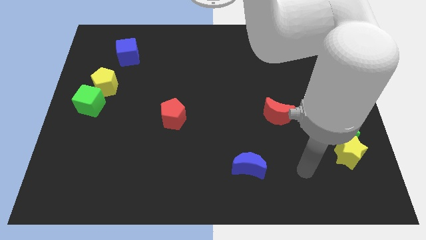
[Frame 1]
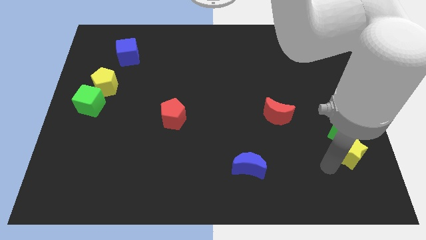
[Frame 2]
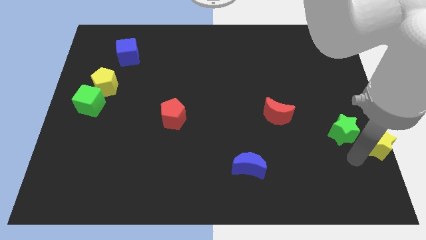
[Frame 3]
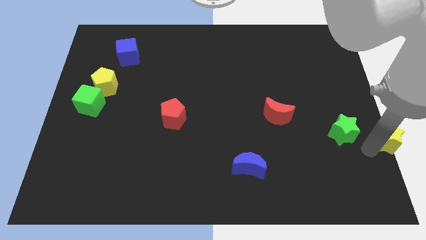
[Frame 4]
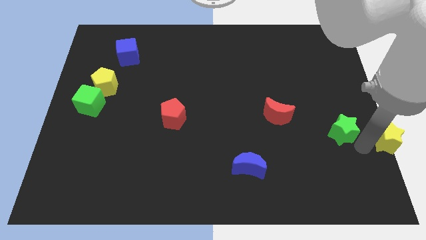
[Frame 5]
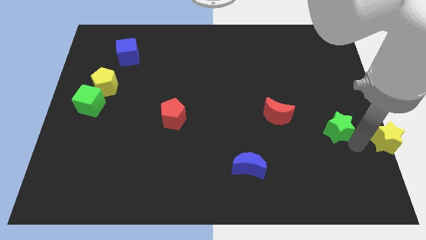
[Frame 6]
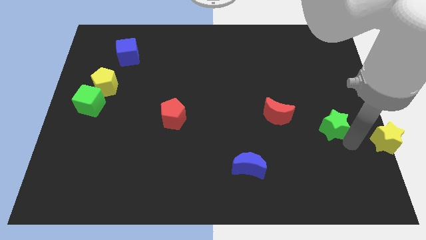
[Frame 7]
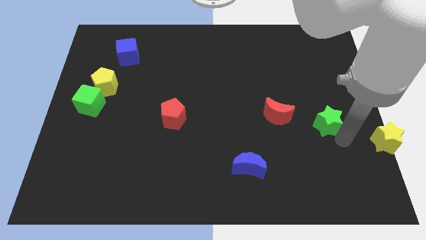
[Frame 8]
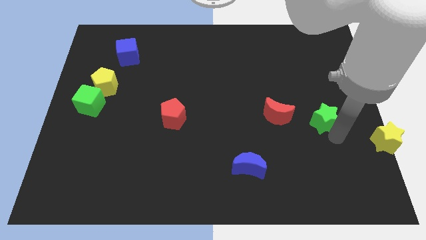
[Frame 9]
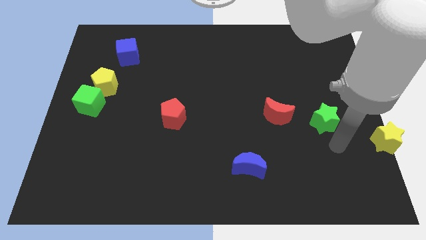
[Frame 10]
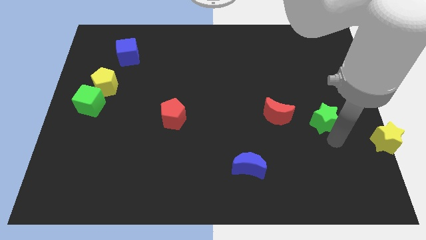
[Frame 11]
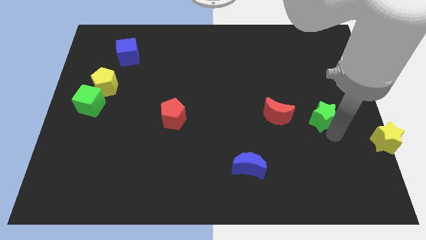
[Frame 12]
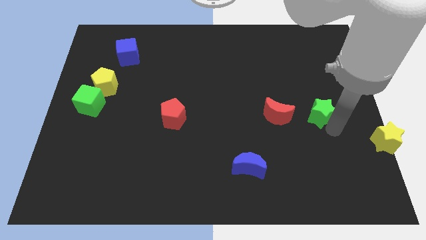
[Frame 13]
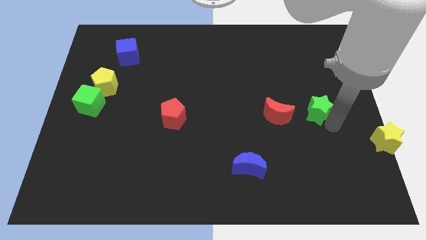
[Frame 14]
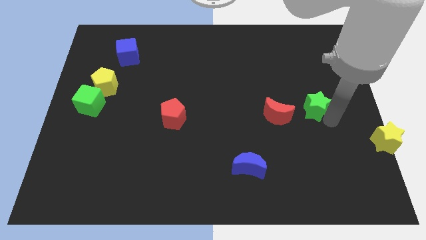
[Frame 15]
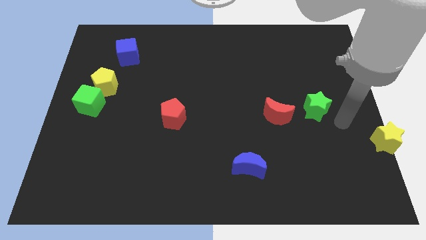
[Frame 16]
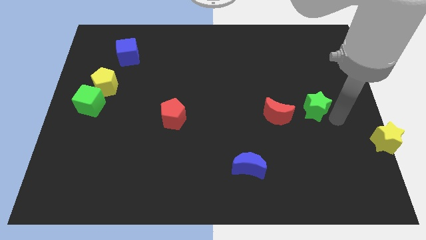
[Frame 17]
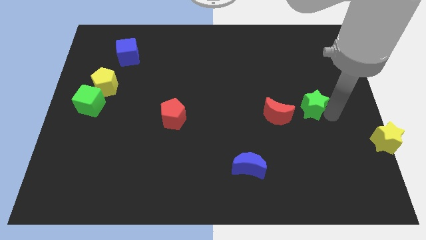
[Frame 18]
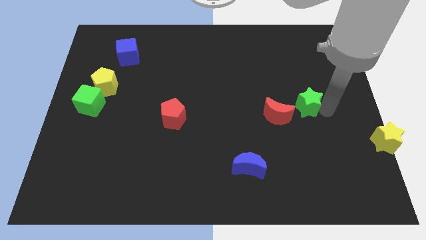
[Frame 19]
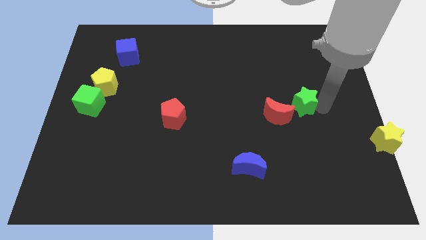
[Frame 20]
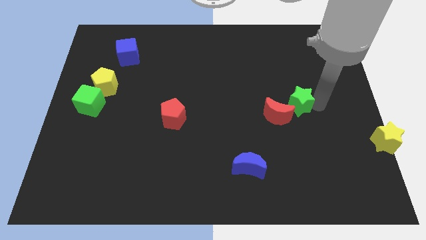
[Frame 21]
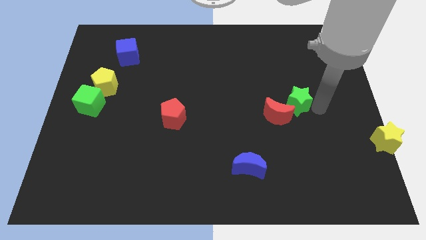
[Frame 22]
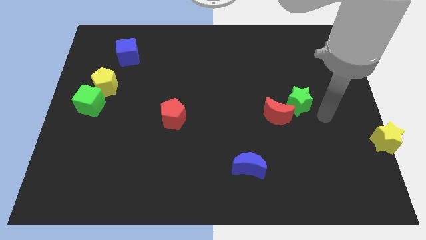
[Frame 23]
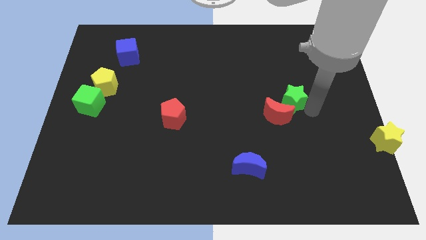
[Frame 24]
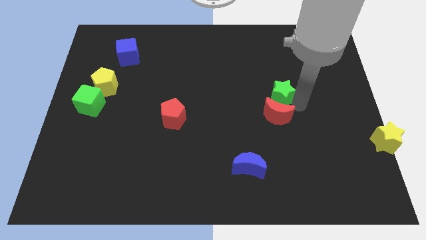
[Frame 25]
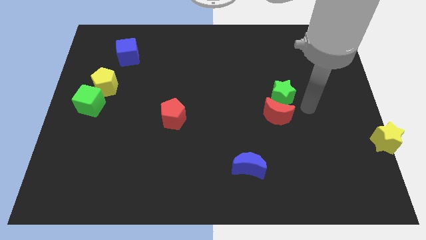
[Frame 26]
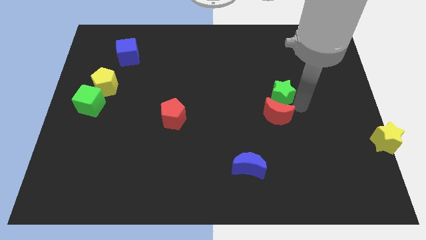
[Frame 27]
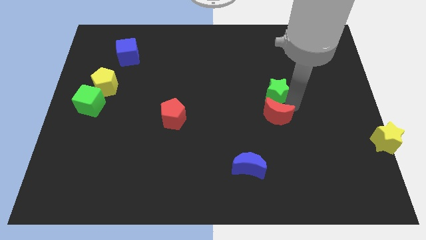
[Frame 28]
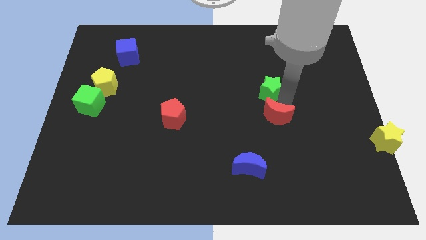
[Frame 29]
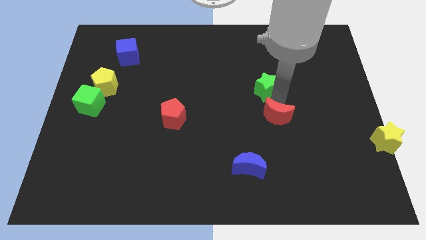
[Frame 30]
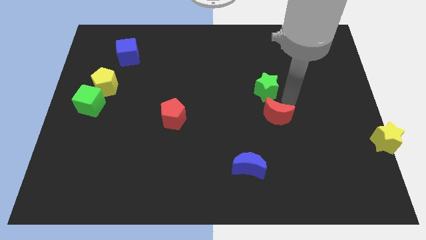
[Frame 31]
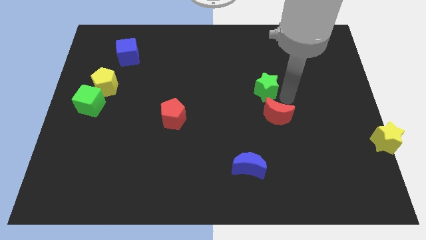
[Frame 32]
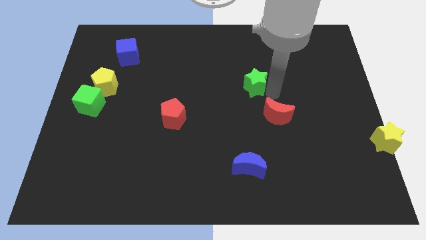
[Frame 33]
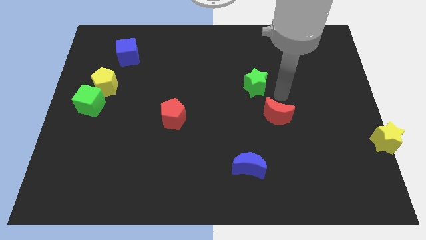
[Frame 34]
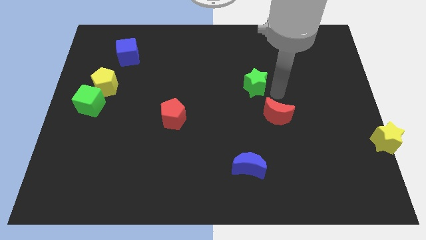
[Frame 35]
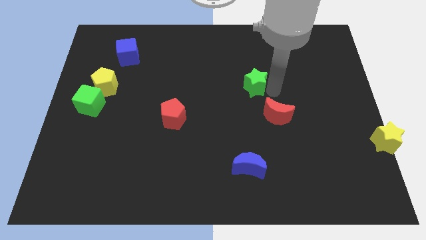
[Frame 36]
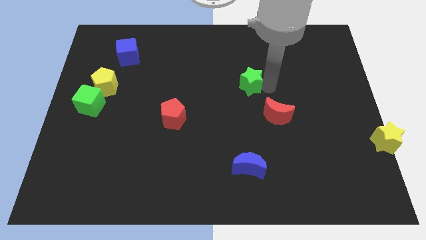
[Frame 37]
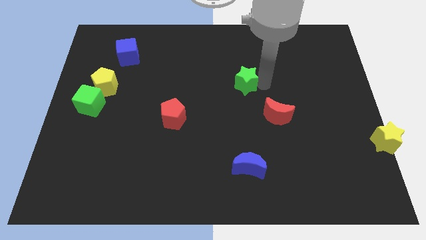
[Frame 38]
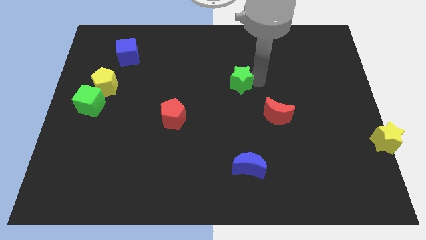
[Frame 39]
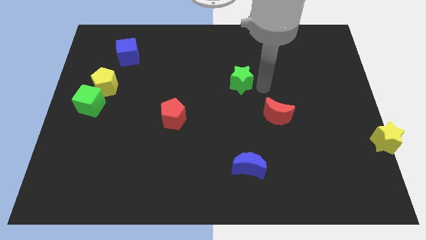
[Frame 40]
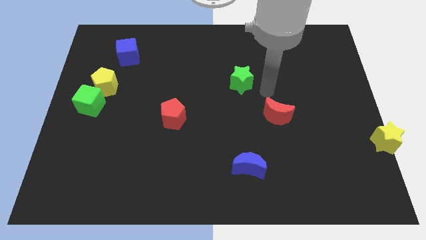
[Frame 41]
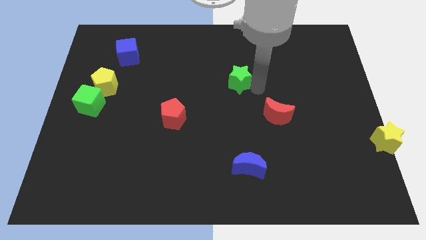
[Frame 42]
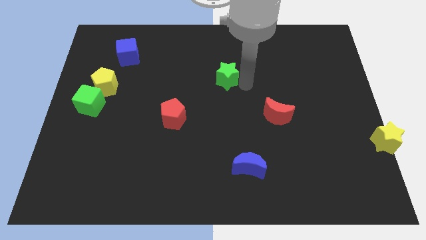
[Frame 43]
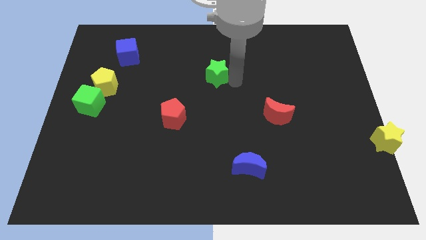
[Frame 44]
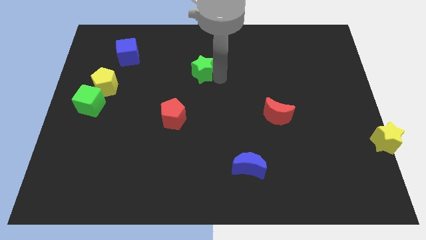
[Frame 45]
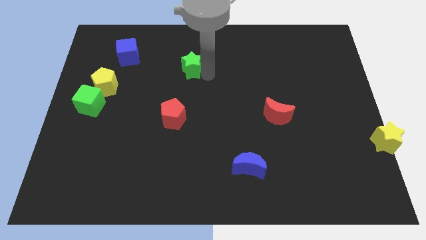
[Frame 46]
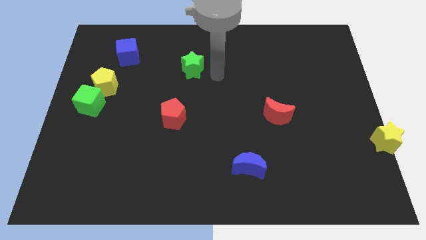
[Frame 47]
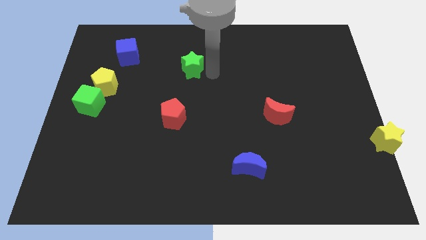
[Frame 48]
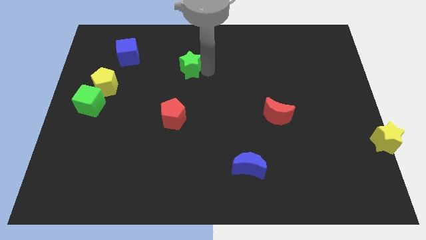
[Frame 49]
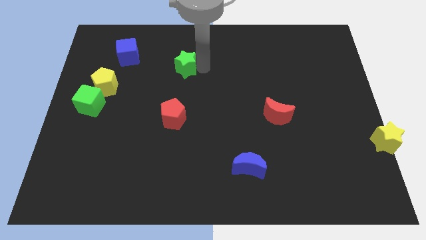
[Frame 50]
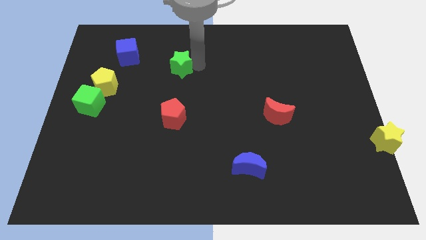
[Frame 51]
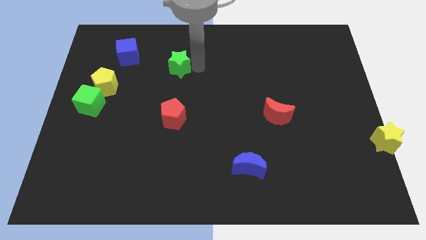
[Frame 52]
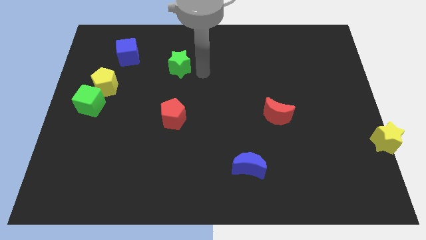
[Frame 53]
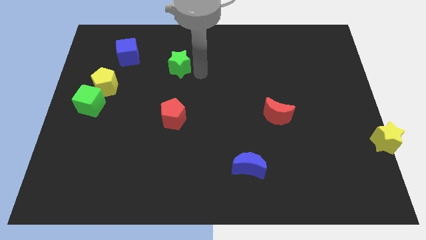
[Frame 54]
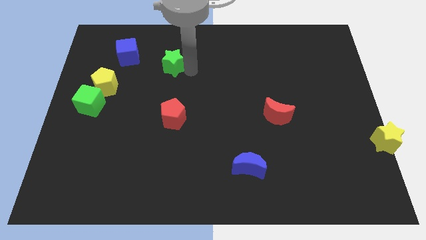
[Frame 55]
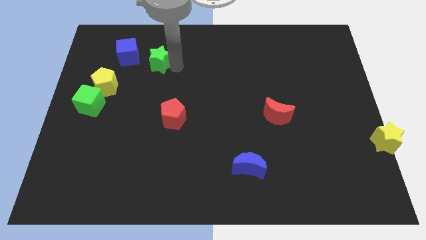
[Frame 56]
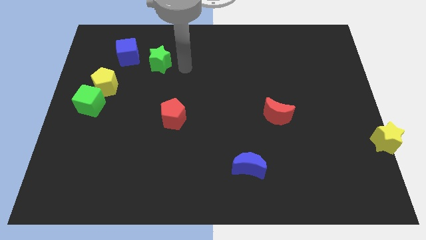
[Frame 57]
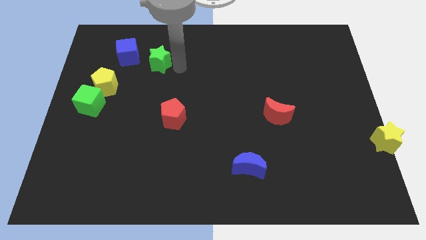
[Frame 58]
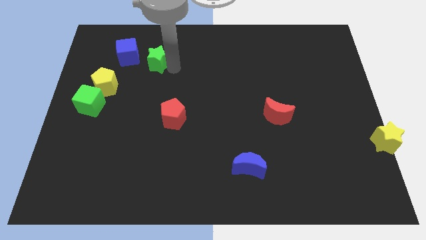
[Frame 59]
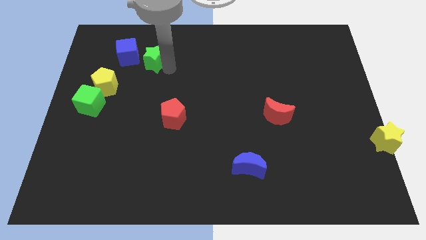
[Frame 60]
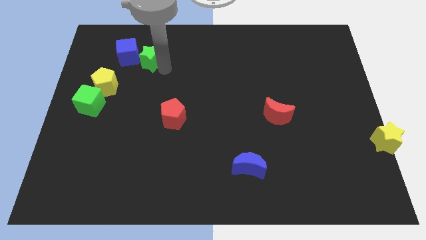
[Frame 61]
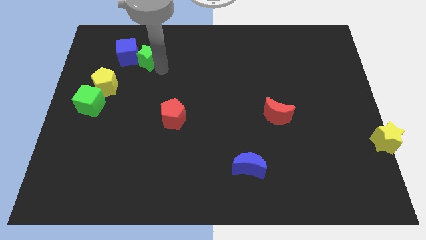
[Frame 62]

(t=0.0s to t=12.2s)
move the green star close to the blue cube
